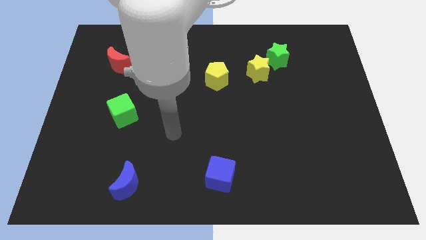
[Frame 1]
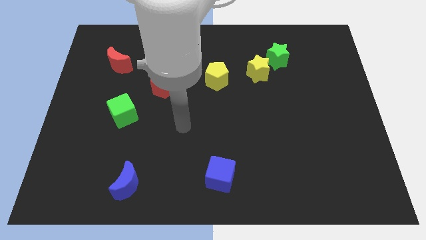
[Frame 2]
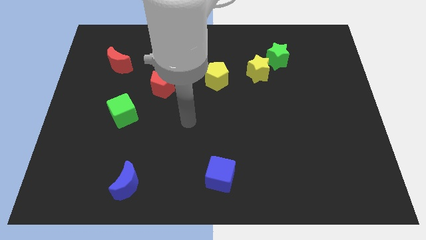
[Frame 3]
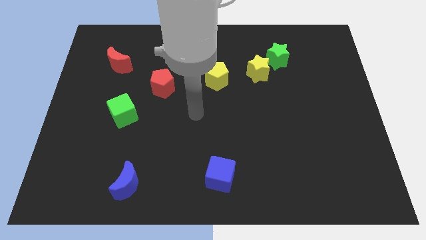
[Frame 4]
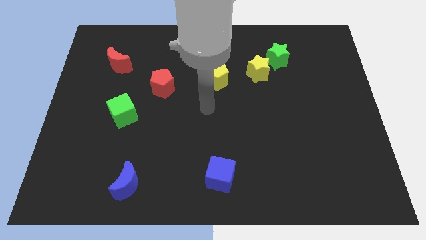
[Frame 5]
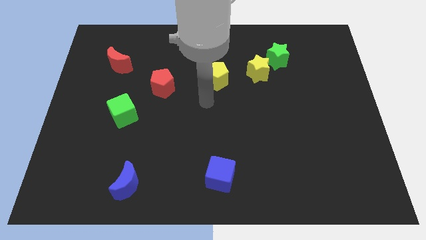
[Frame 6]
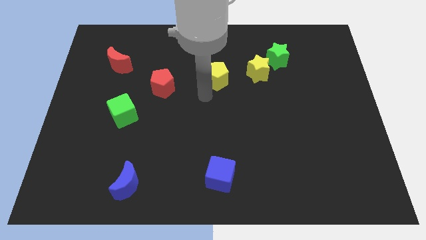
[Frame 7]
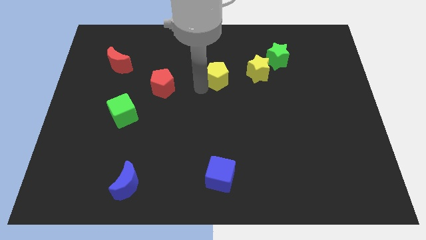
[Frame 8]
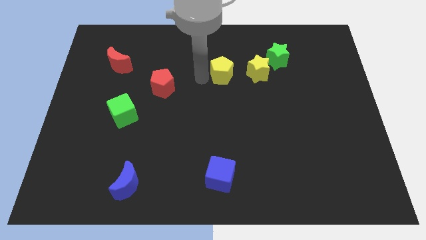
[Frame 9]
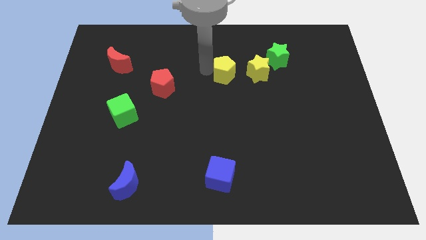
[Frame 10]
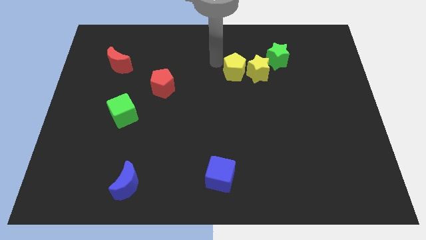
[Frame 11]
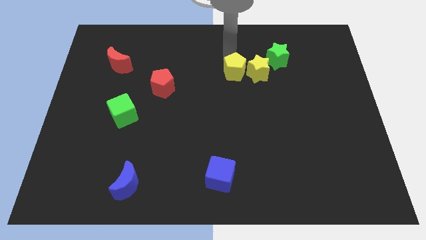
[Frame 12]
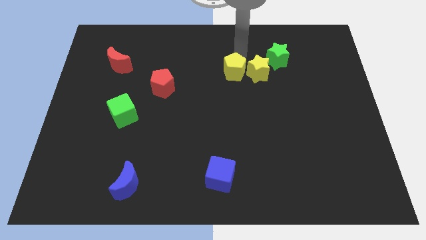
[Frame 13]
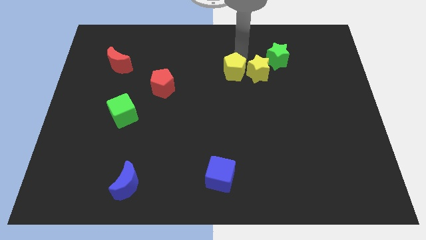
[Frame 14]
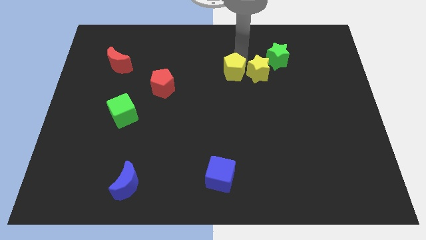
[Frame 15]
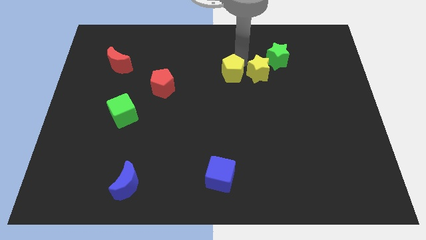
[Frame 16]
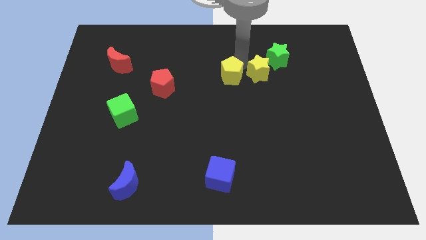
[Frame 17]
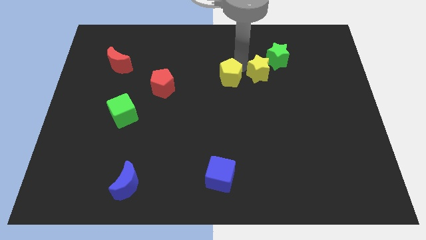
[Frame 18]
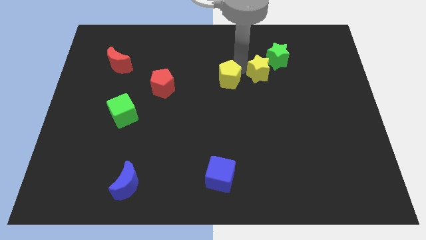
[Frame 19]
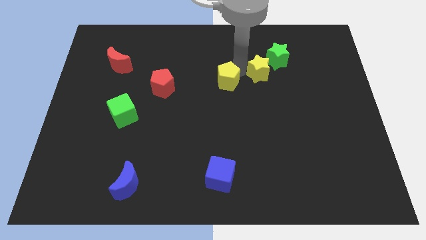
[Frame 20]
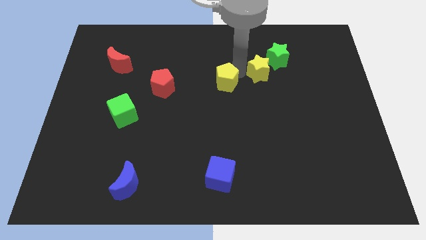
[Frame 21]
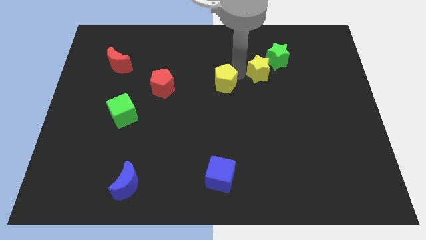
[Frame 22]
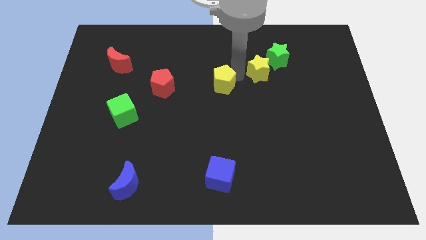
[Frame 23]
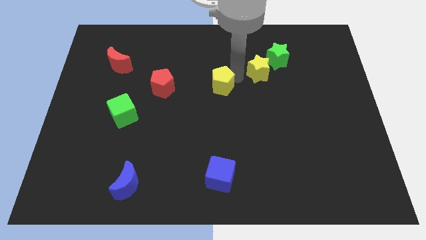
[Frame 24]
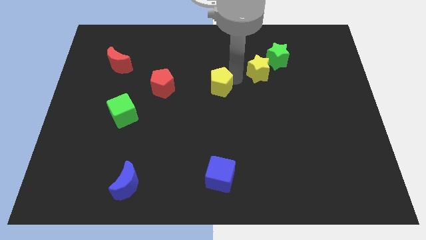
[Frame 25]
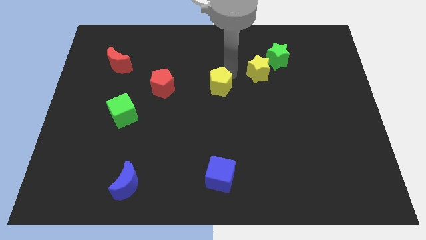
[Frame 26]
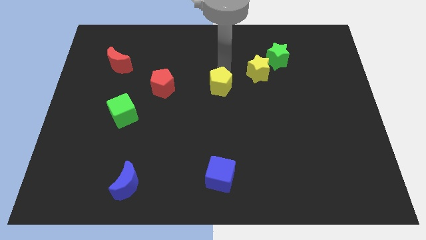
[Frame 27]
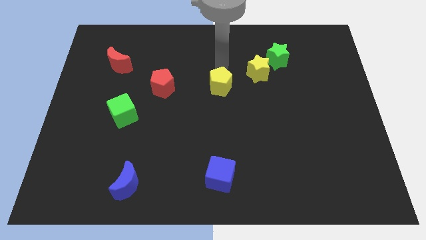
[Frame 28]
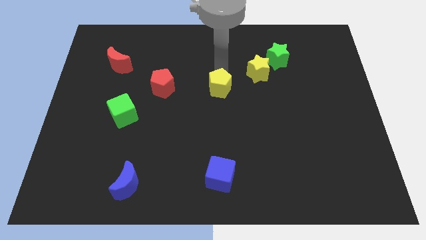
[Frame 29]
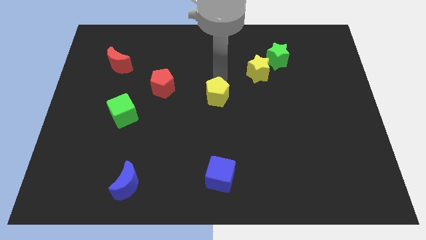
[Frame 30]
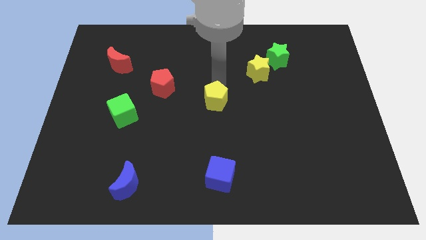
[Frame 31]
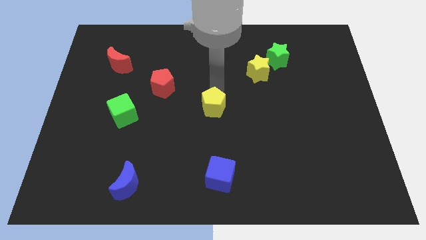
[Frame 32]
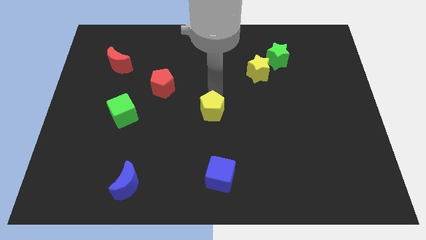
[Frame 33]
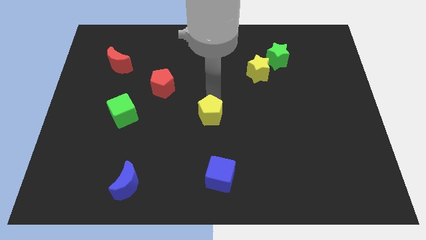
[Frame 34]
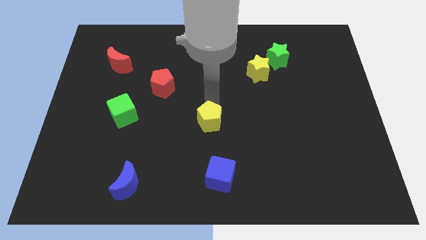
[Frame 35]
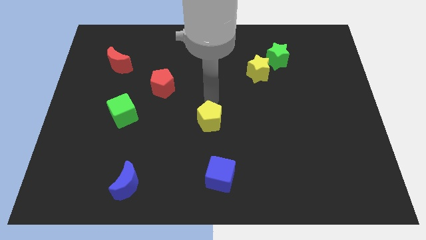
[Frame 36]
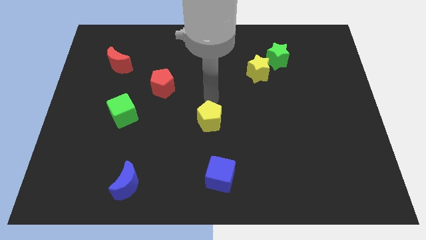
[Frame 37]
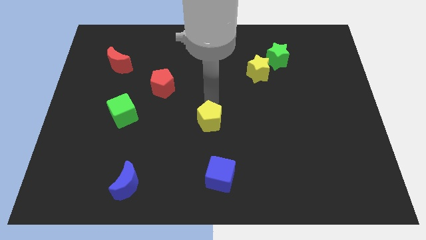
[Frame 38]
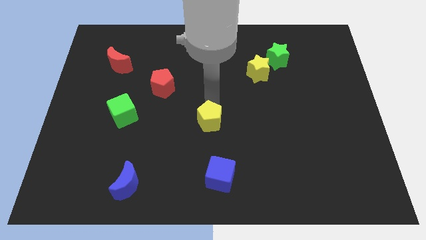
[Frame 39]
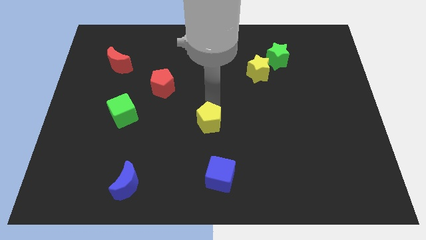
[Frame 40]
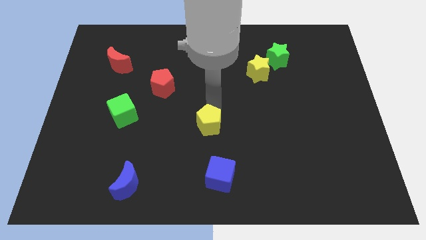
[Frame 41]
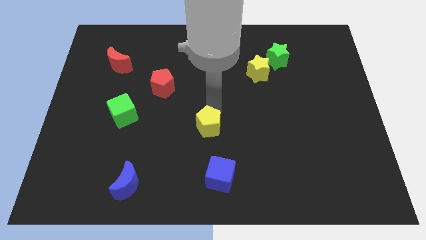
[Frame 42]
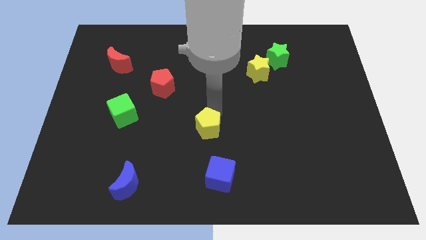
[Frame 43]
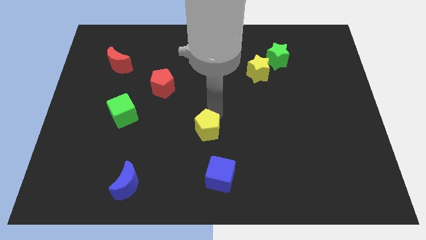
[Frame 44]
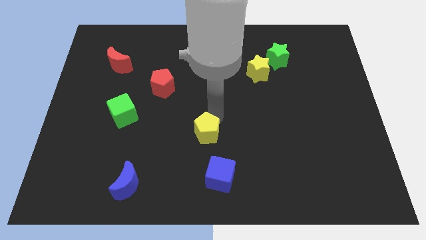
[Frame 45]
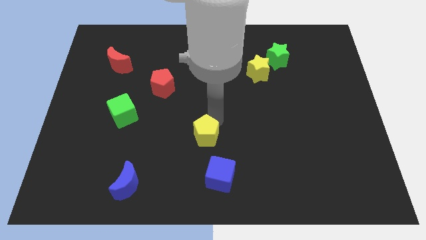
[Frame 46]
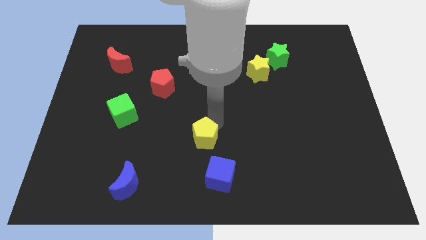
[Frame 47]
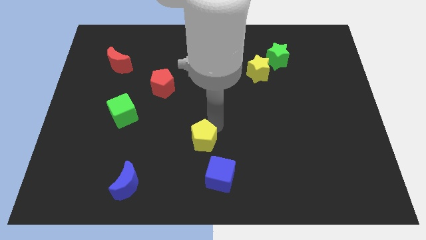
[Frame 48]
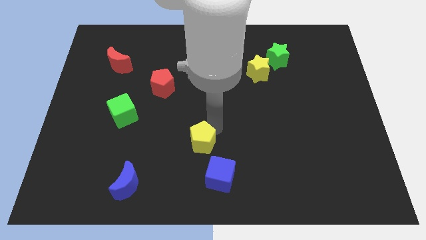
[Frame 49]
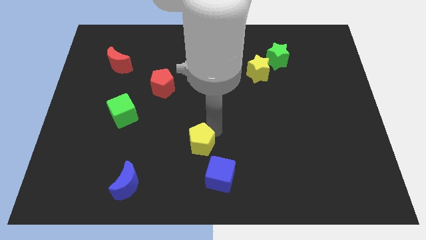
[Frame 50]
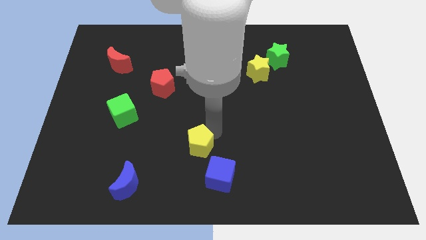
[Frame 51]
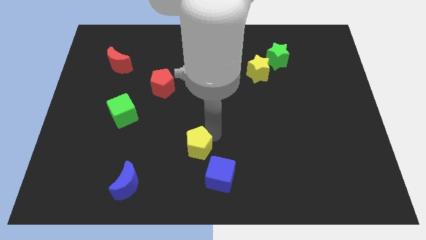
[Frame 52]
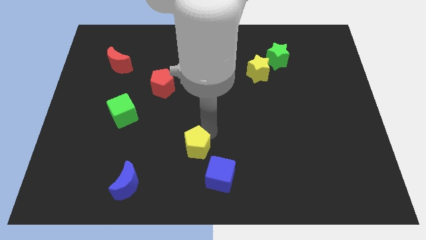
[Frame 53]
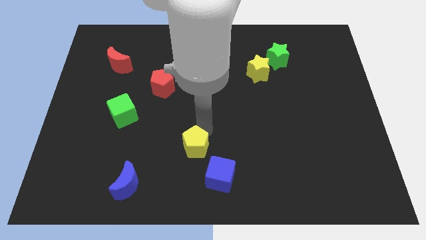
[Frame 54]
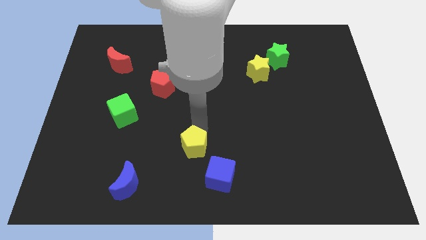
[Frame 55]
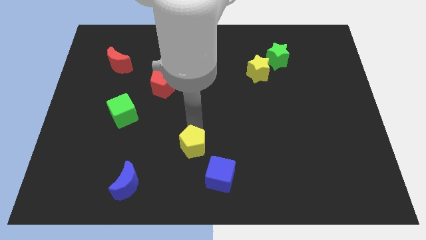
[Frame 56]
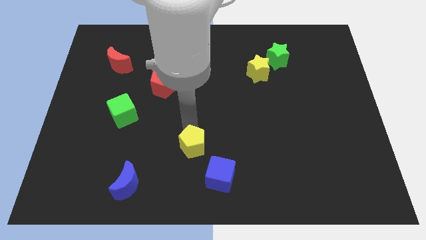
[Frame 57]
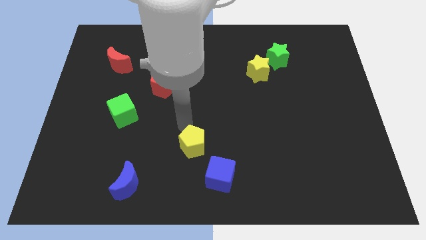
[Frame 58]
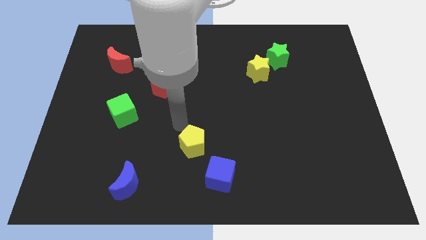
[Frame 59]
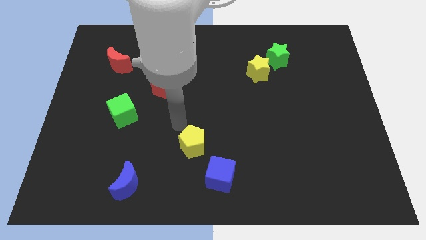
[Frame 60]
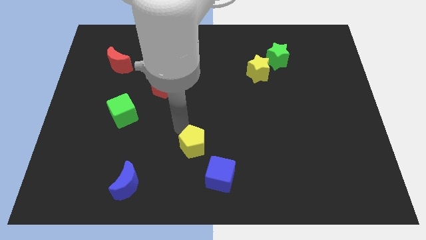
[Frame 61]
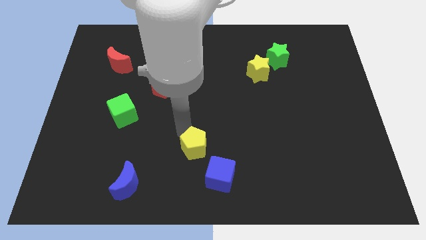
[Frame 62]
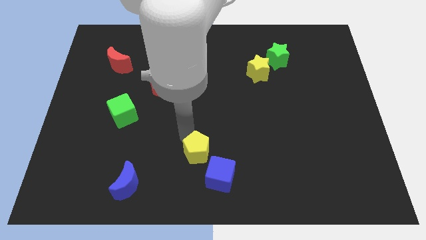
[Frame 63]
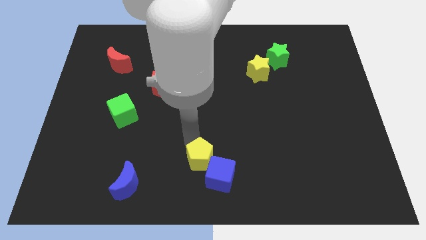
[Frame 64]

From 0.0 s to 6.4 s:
slide the yellow pentagon to the bottom side
